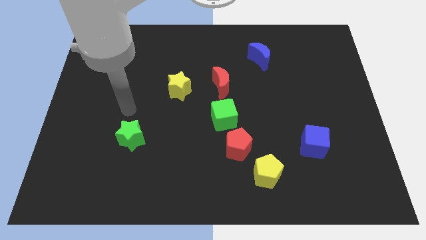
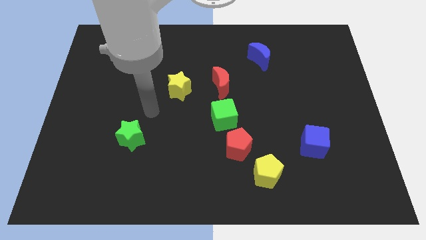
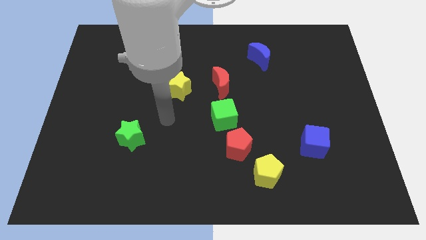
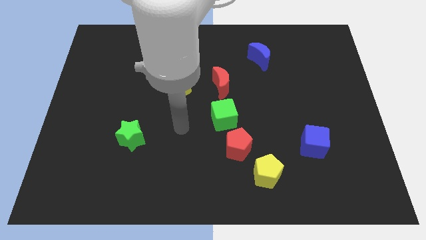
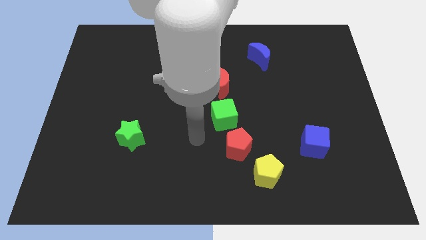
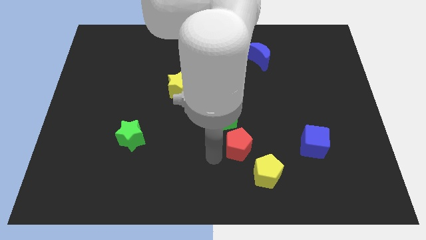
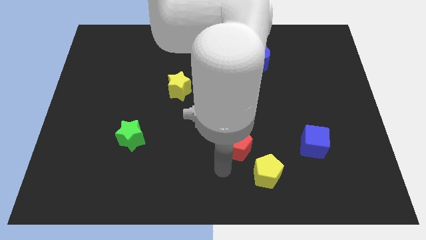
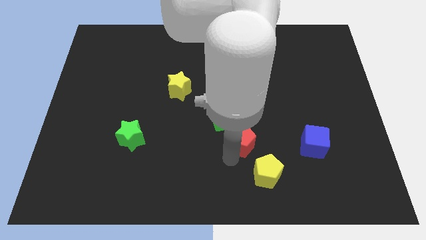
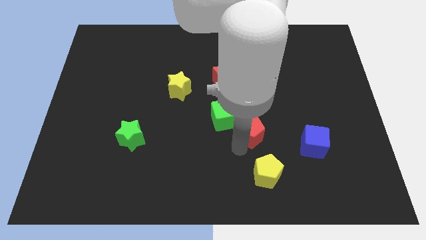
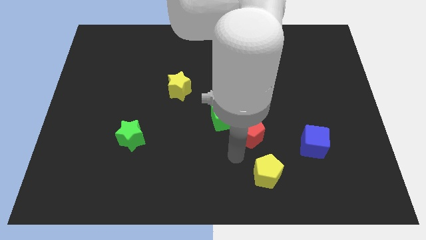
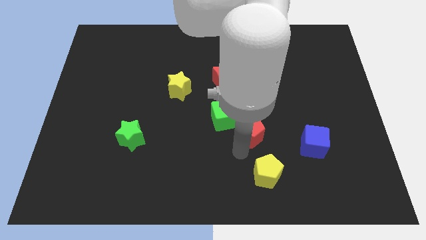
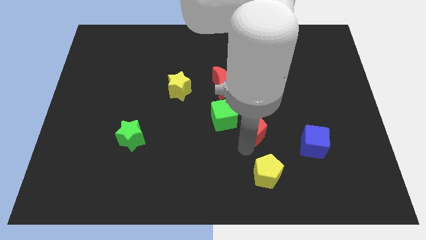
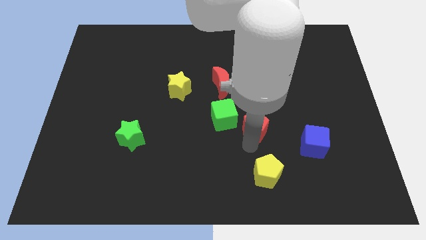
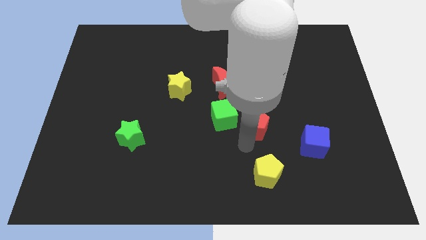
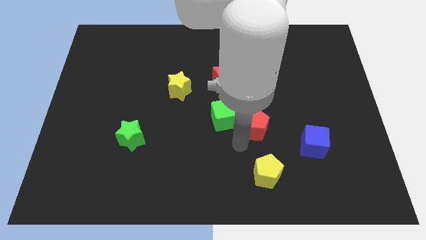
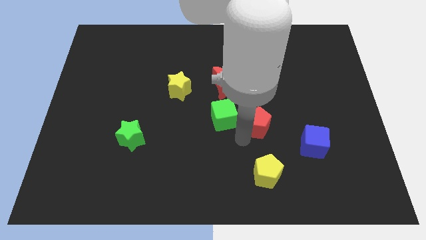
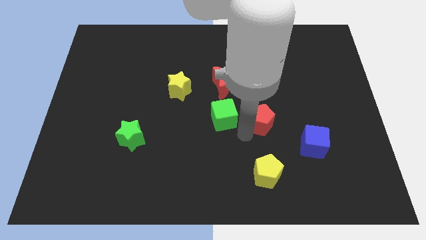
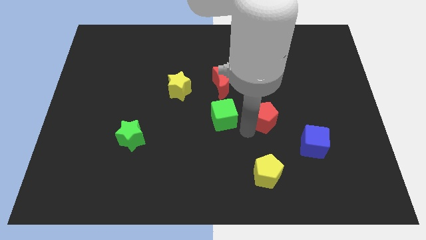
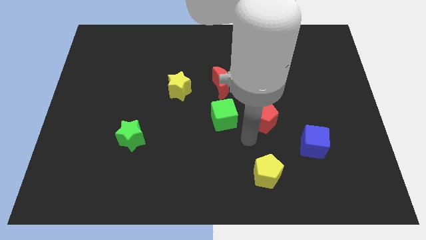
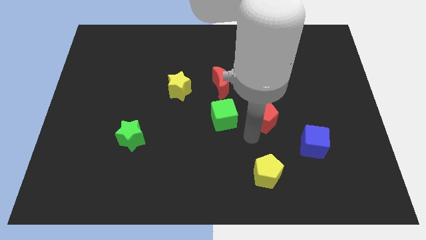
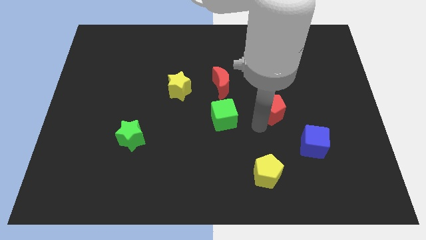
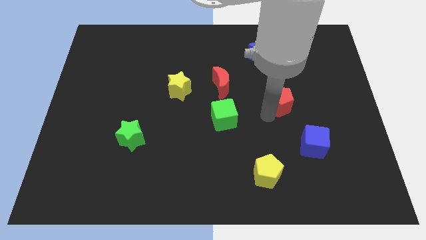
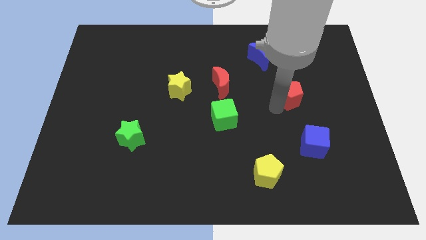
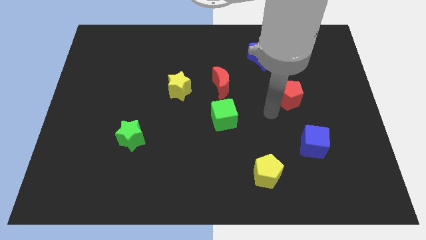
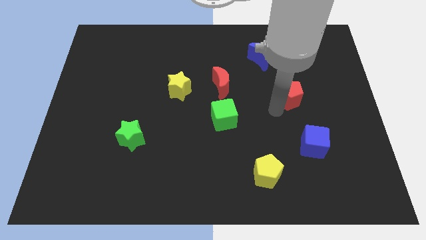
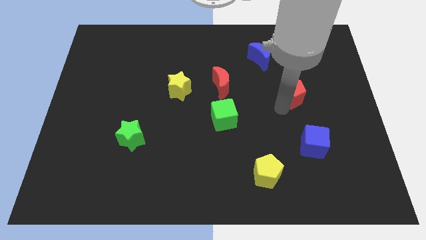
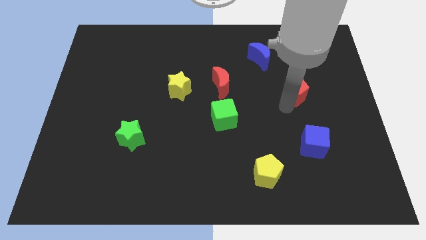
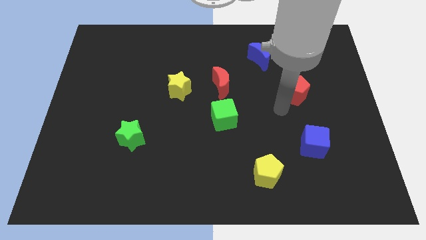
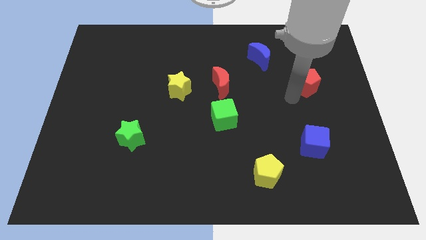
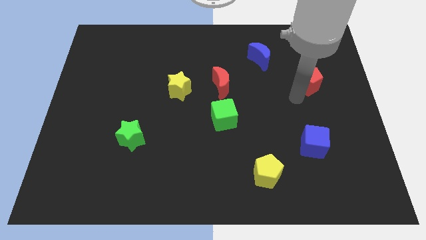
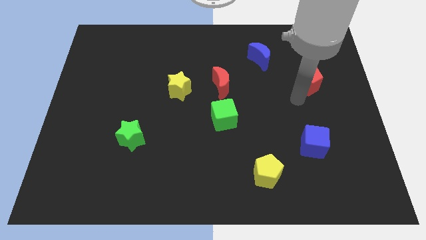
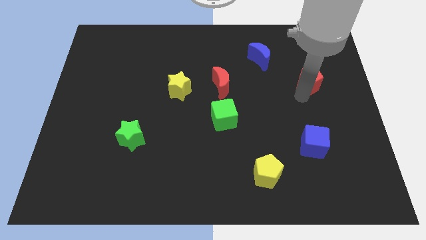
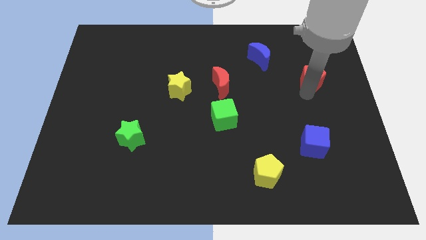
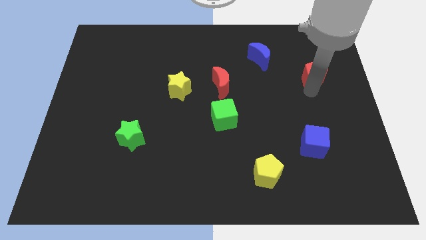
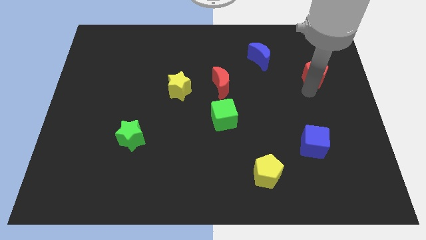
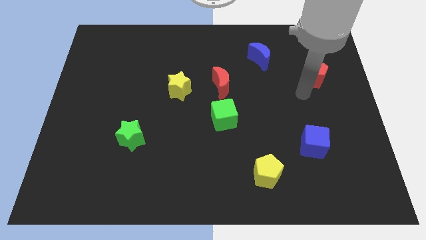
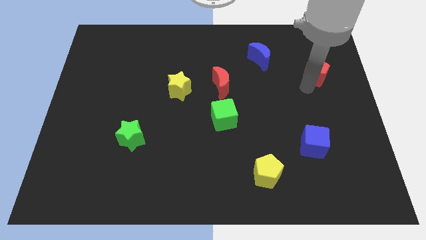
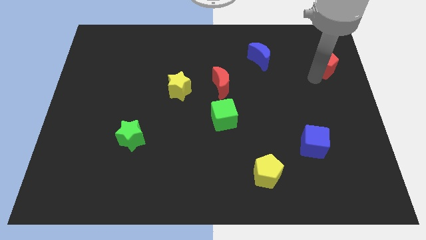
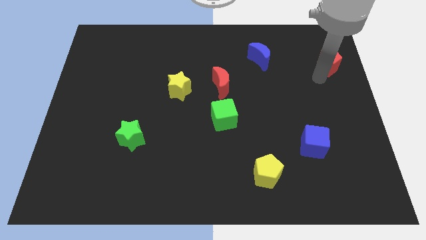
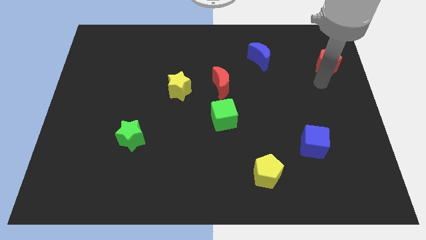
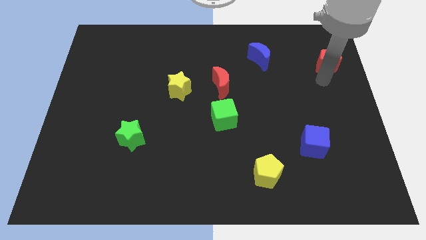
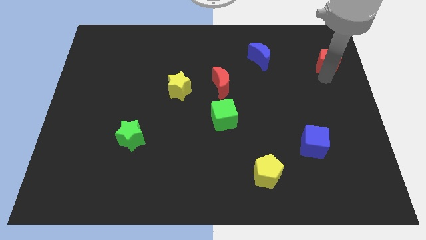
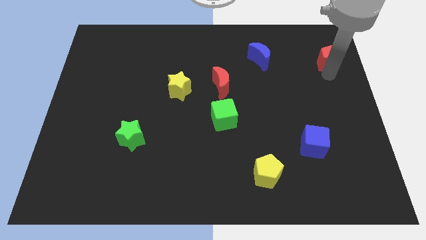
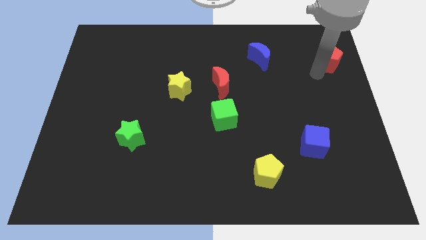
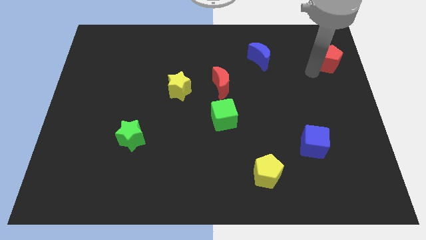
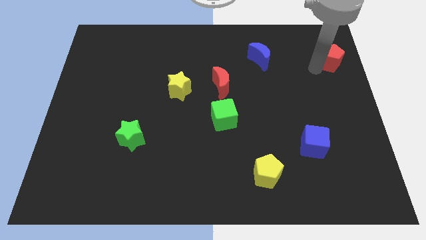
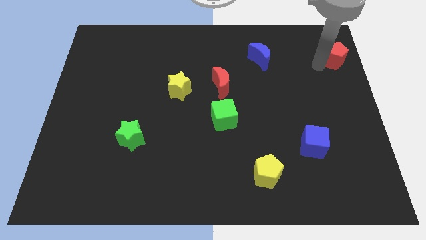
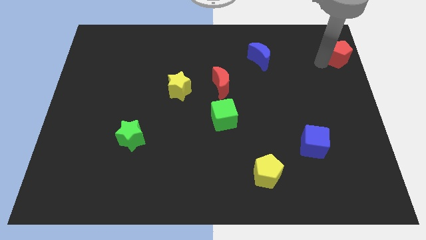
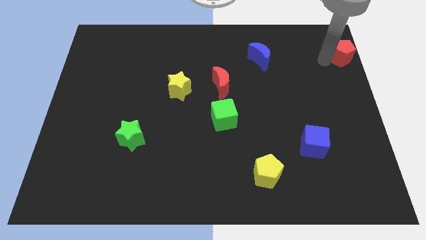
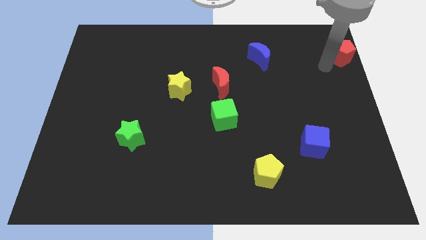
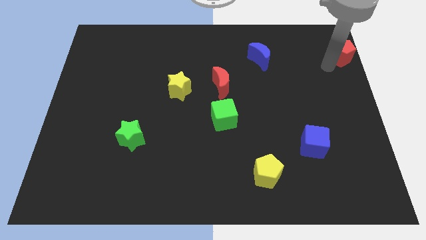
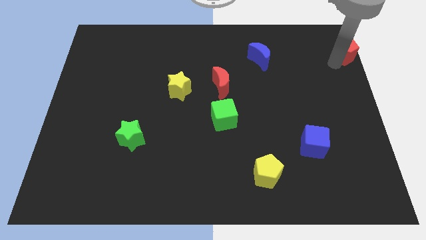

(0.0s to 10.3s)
slide the red pentagon to the top right corner

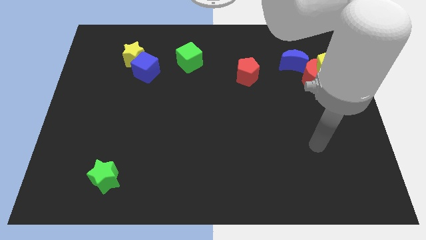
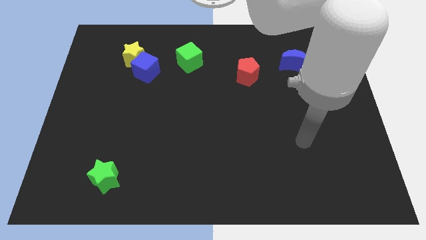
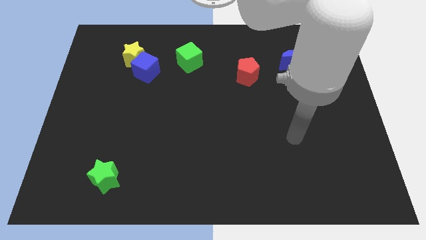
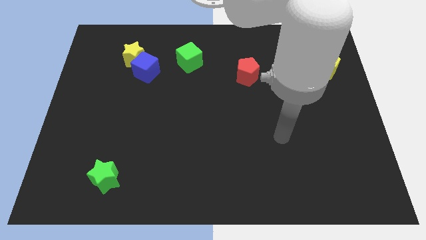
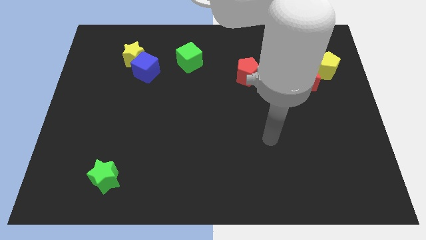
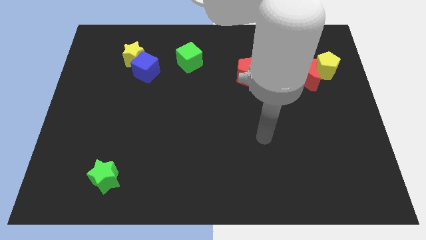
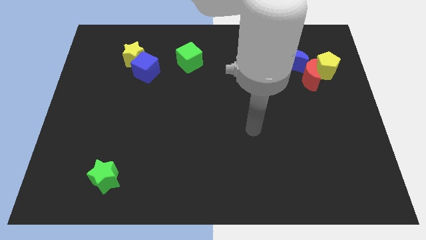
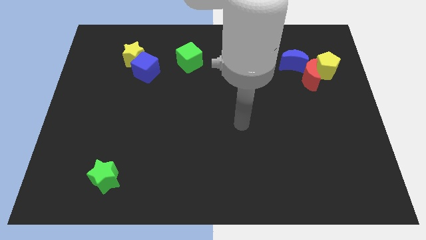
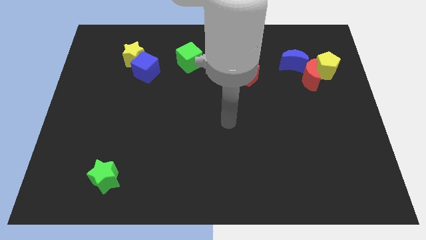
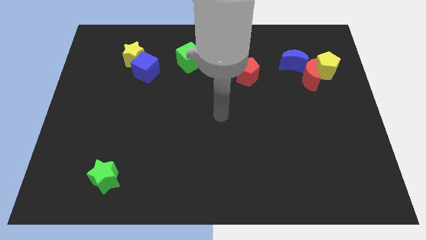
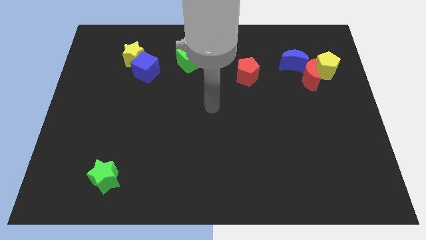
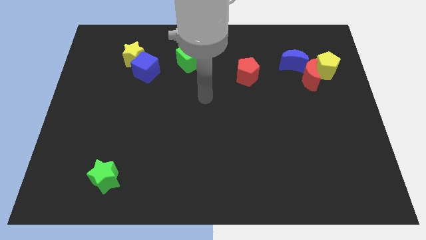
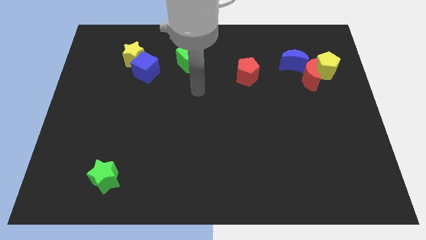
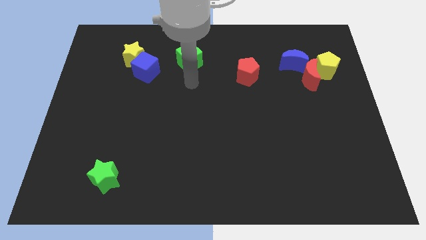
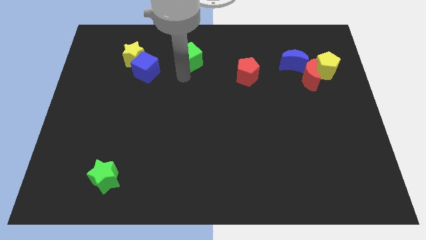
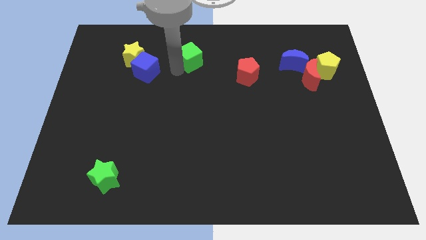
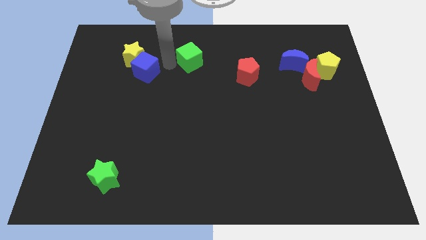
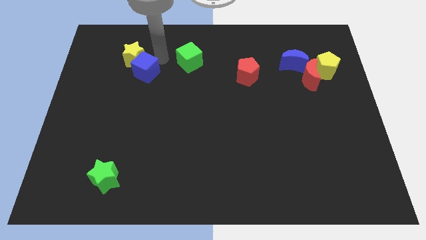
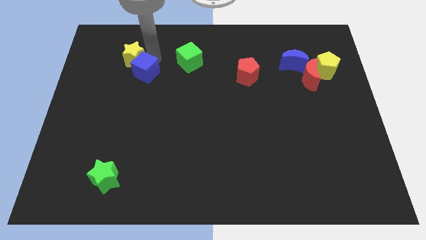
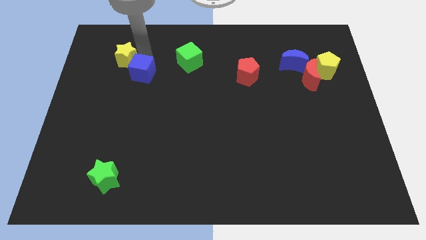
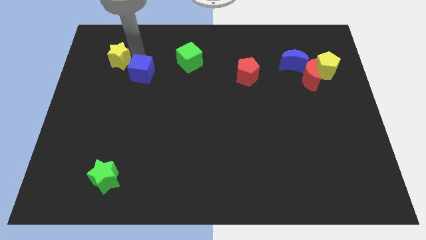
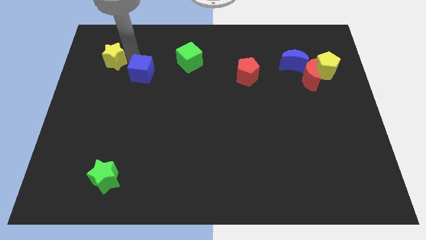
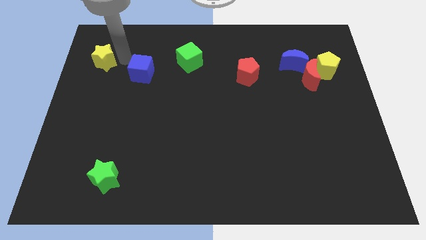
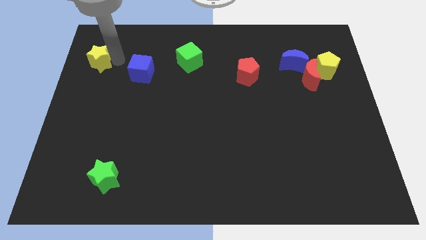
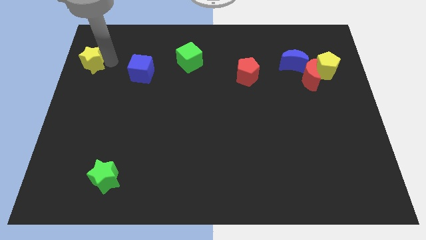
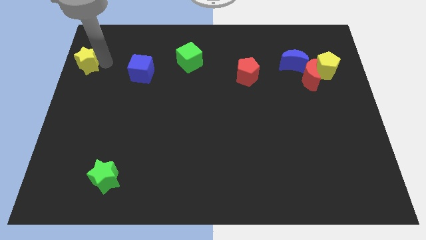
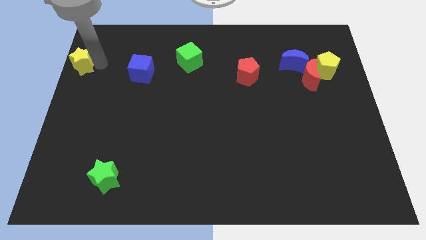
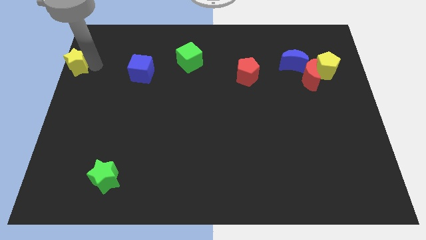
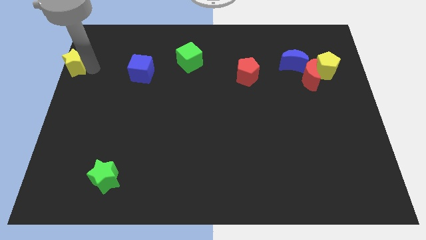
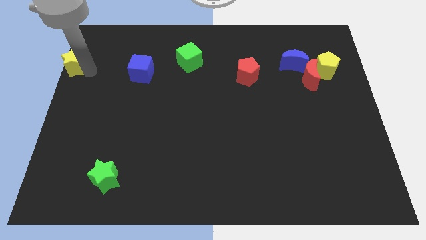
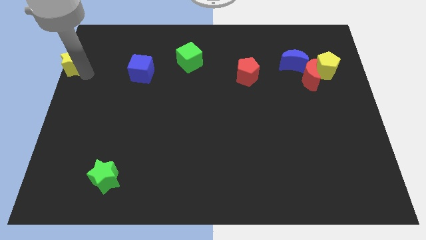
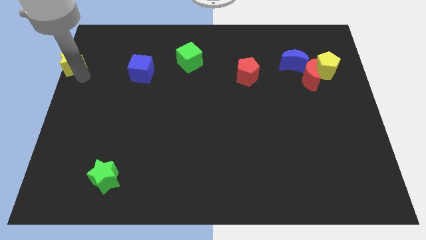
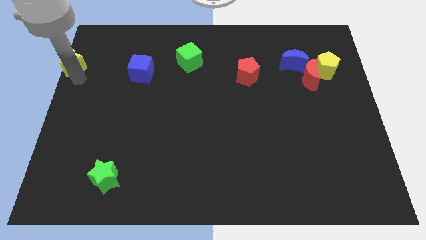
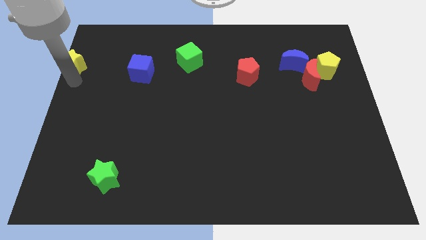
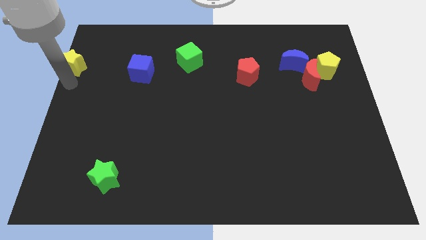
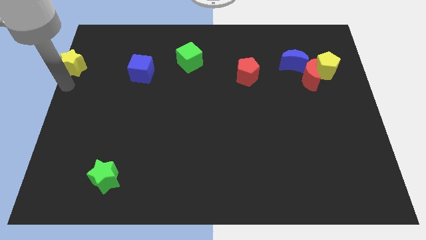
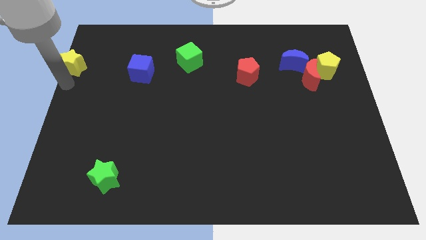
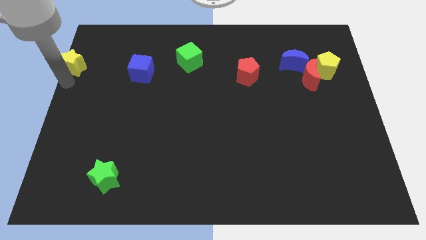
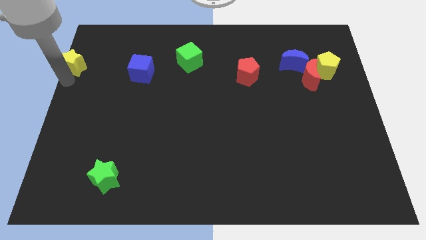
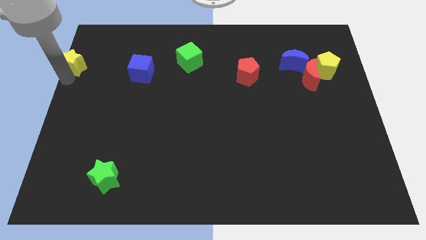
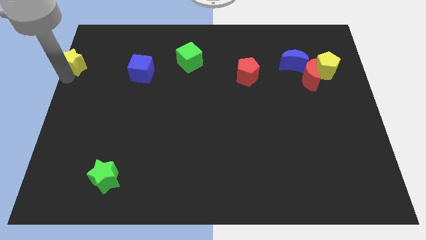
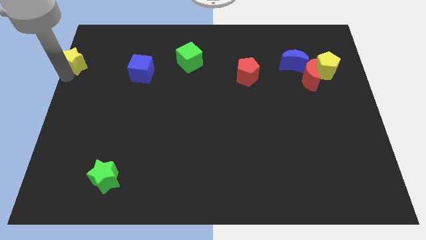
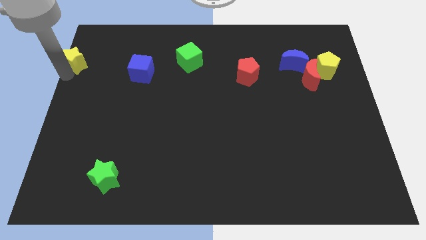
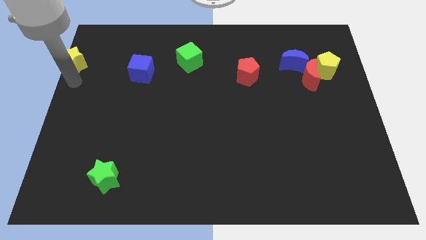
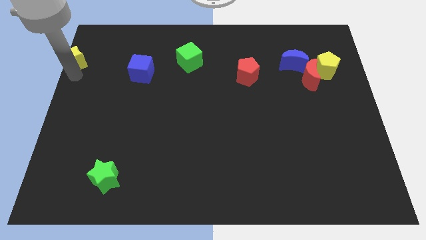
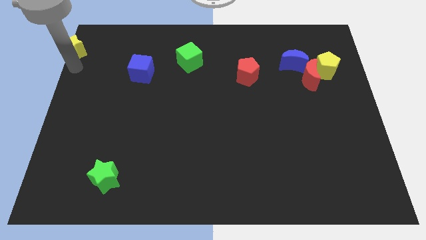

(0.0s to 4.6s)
move the yellow star to the top left of the board
